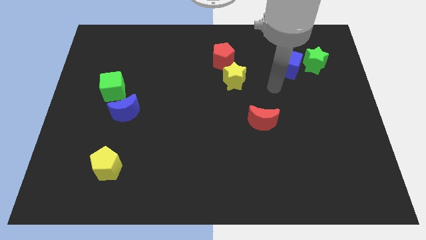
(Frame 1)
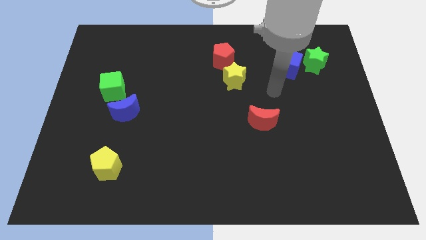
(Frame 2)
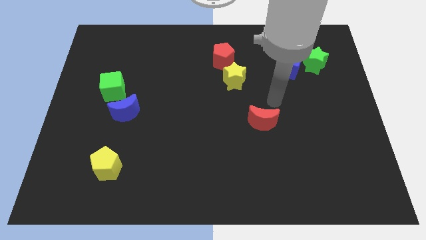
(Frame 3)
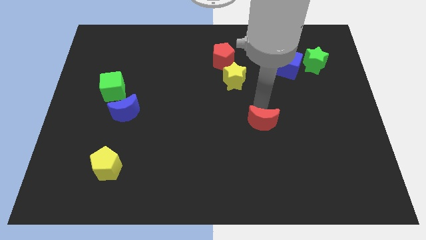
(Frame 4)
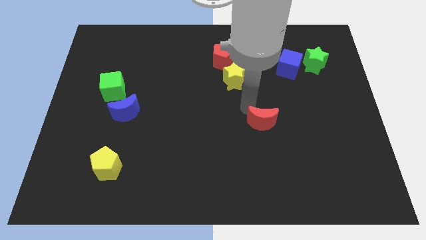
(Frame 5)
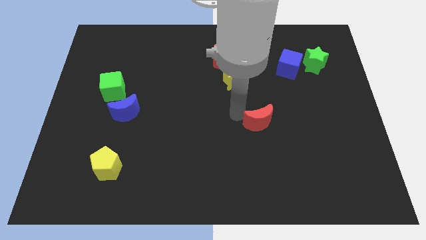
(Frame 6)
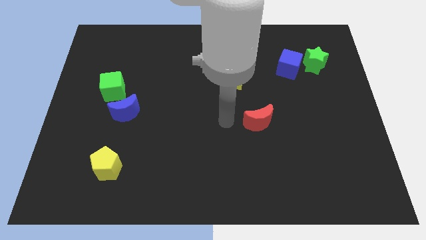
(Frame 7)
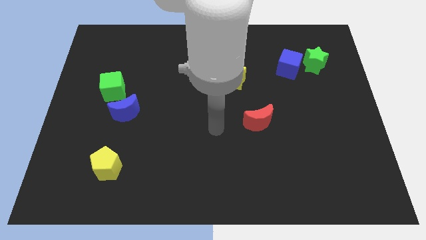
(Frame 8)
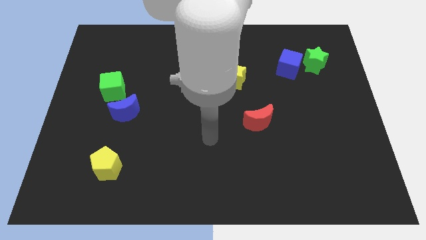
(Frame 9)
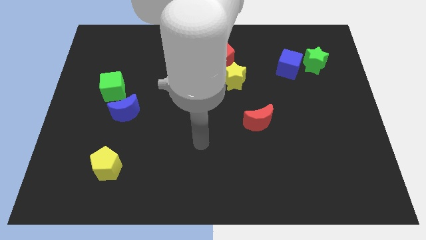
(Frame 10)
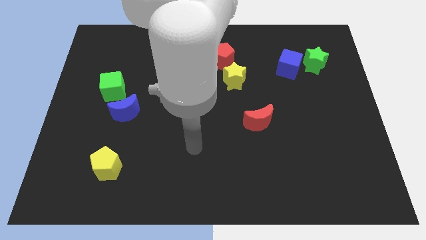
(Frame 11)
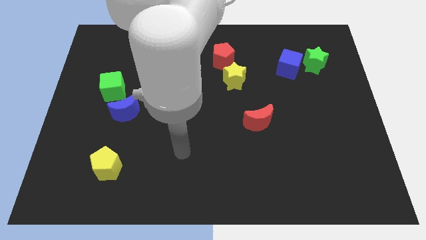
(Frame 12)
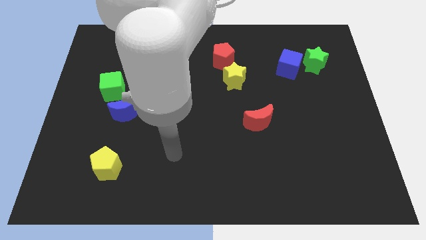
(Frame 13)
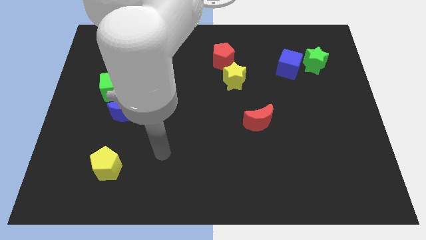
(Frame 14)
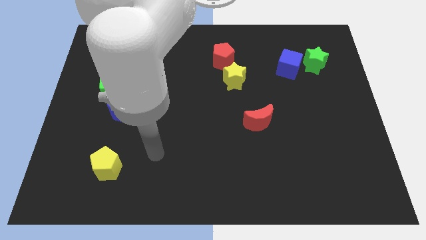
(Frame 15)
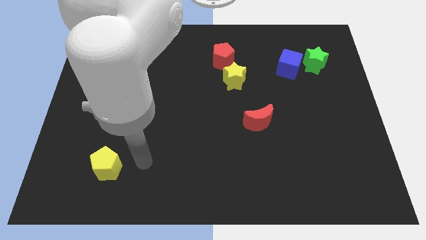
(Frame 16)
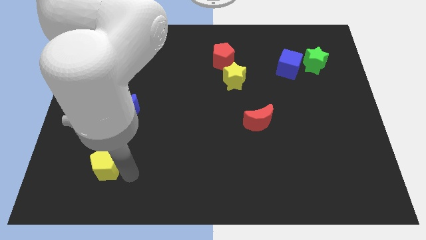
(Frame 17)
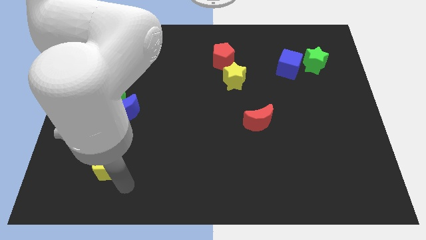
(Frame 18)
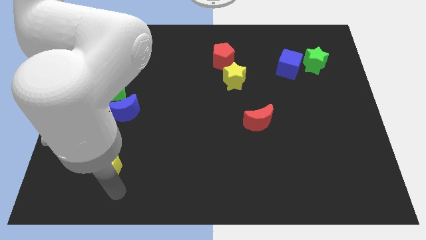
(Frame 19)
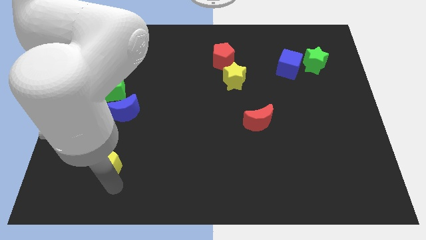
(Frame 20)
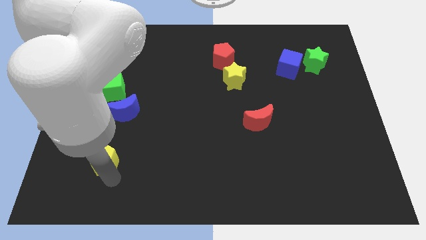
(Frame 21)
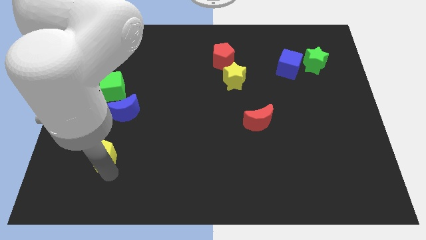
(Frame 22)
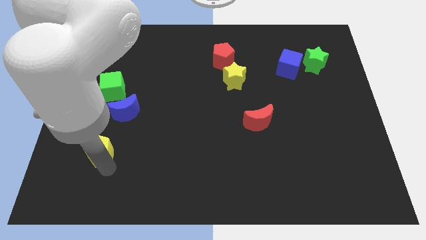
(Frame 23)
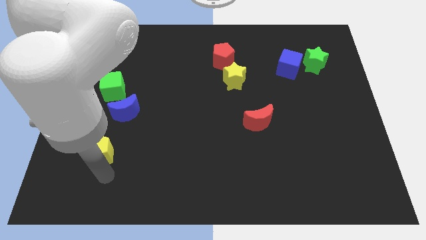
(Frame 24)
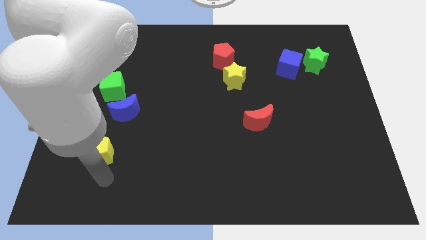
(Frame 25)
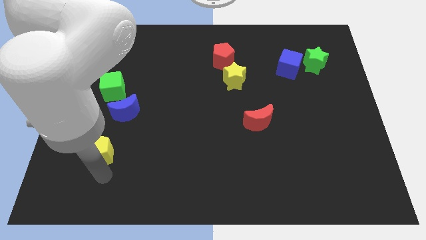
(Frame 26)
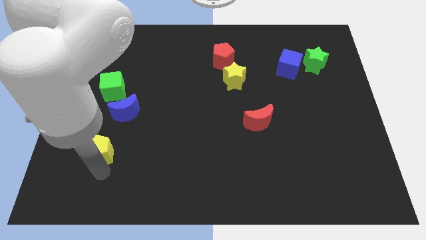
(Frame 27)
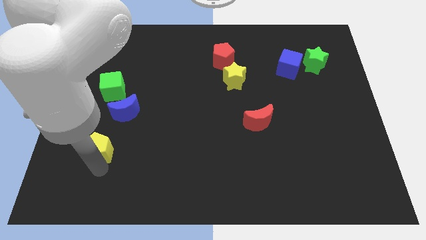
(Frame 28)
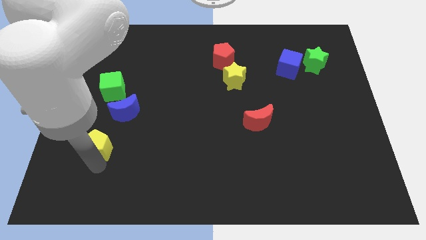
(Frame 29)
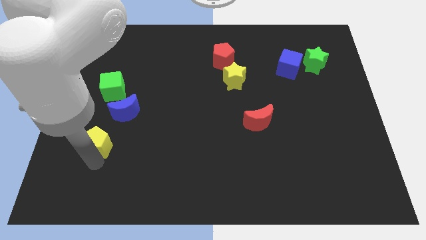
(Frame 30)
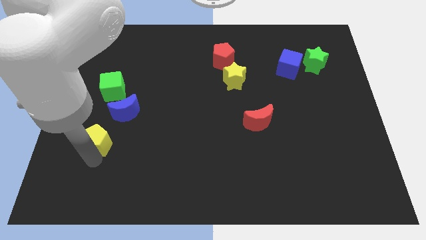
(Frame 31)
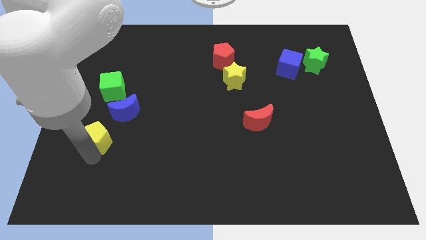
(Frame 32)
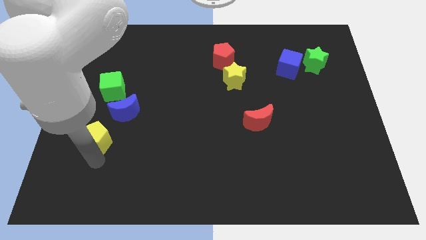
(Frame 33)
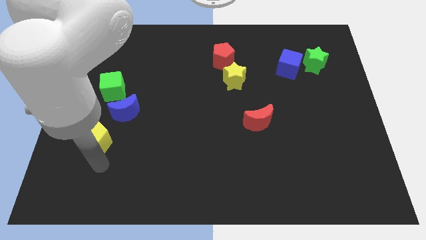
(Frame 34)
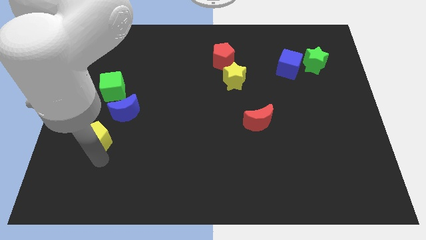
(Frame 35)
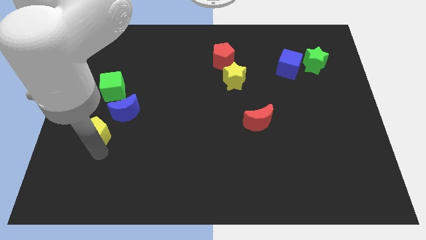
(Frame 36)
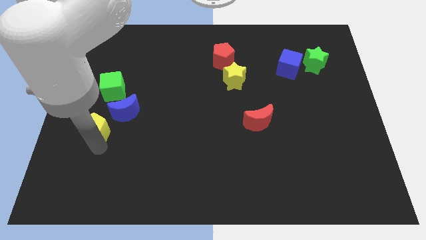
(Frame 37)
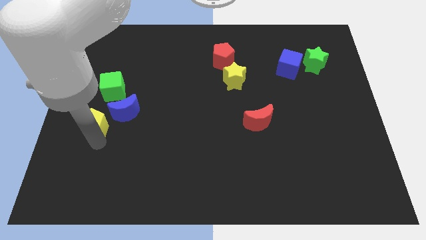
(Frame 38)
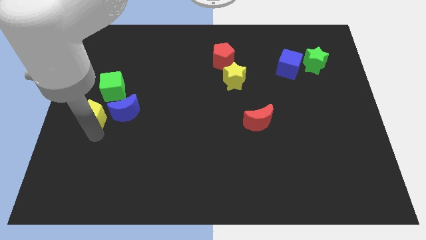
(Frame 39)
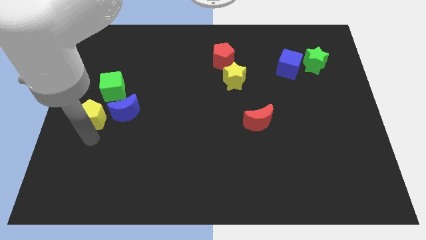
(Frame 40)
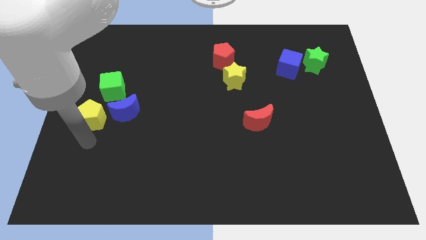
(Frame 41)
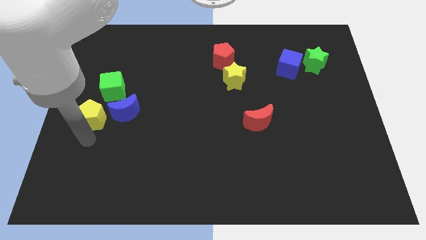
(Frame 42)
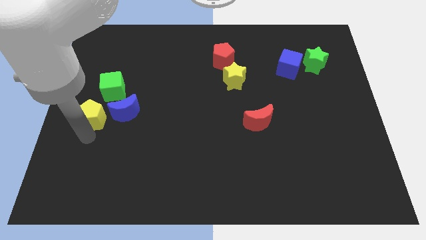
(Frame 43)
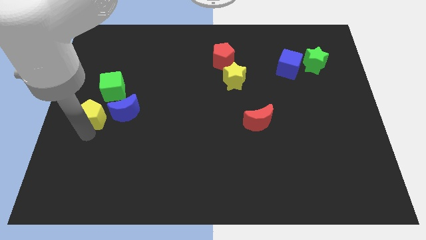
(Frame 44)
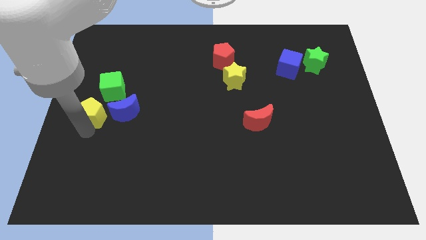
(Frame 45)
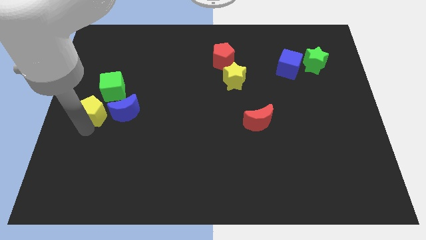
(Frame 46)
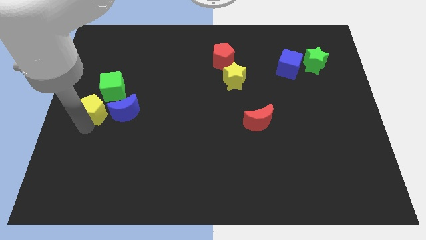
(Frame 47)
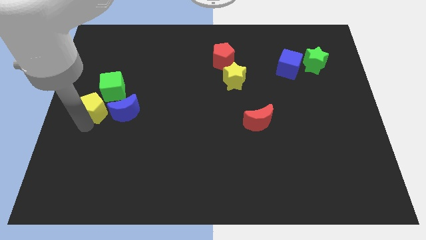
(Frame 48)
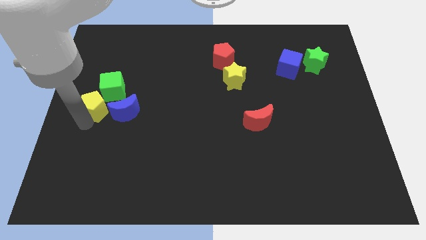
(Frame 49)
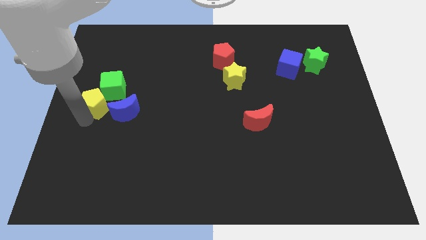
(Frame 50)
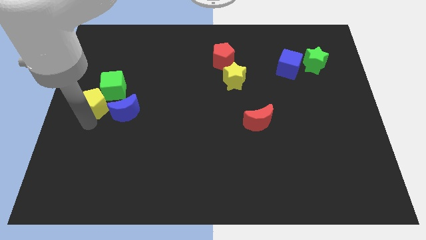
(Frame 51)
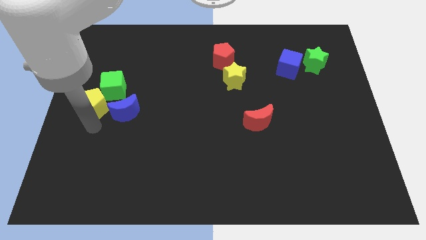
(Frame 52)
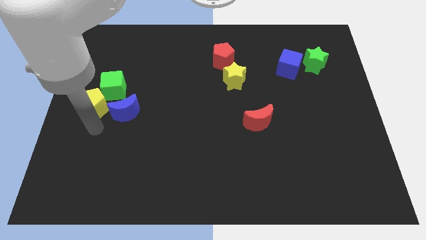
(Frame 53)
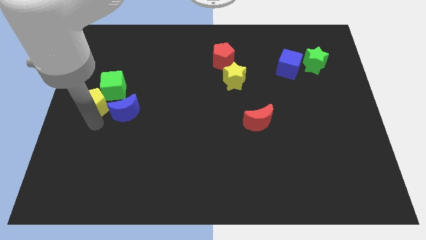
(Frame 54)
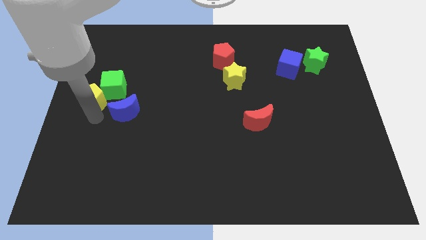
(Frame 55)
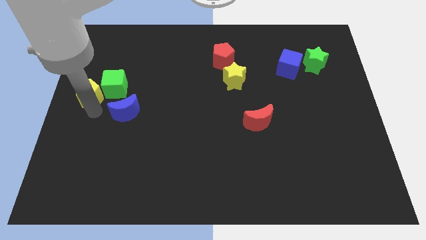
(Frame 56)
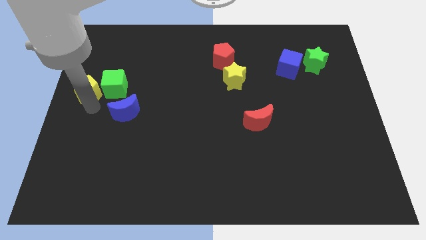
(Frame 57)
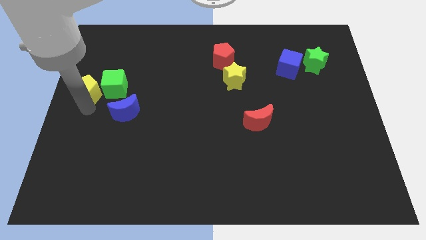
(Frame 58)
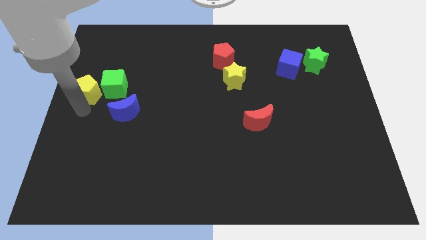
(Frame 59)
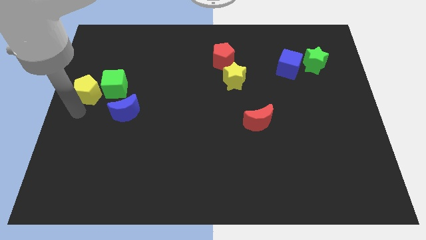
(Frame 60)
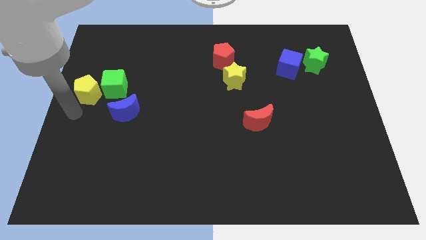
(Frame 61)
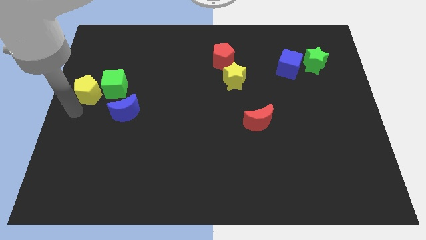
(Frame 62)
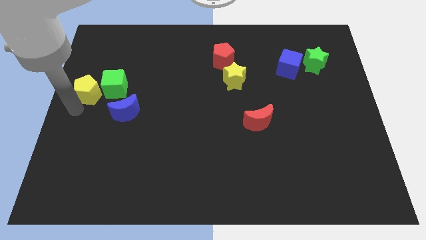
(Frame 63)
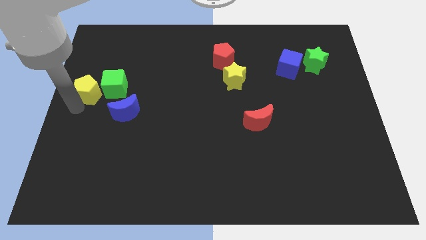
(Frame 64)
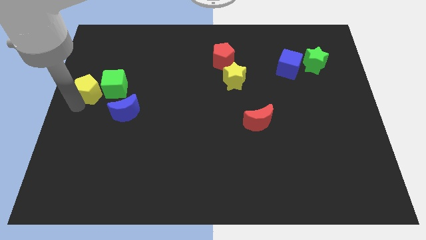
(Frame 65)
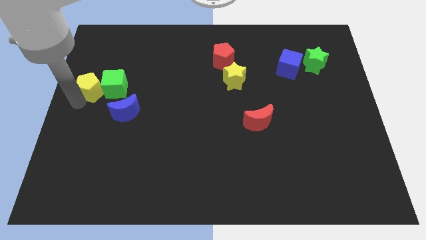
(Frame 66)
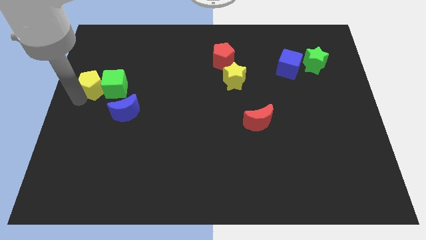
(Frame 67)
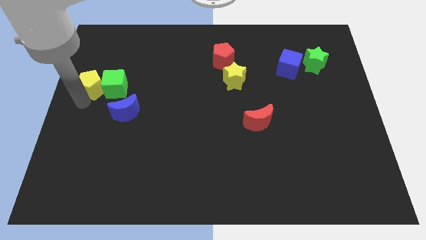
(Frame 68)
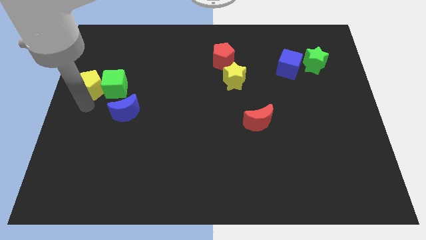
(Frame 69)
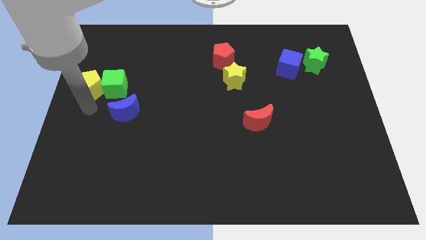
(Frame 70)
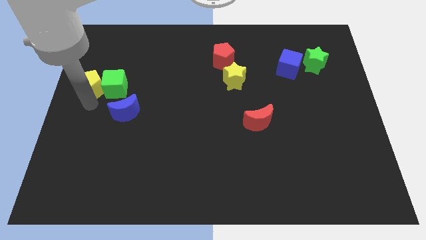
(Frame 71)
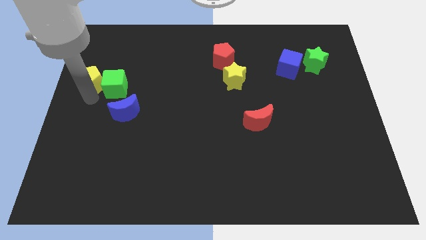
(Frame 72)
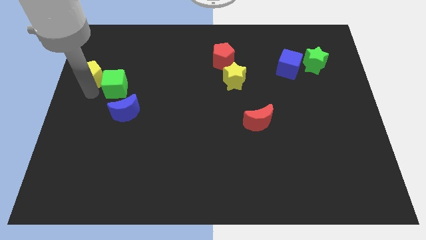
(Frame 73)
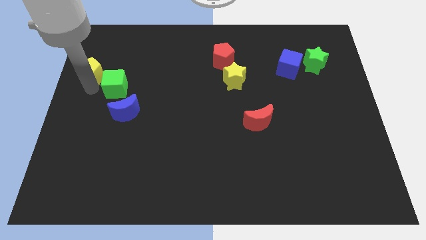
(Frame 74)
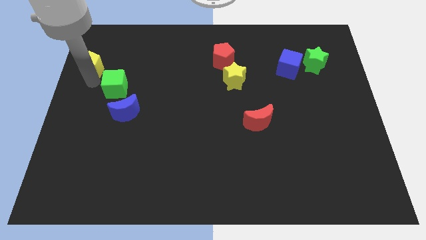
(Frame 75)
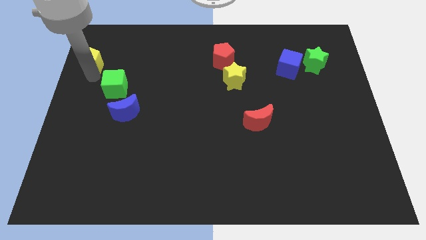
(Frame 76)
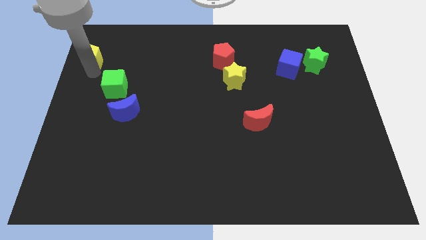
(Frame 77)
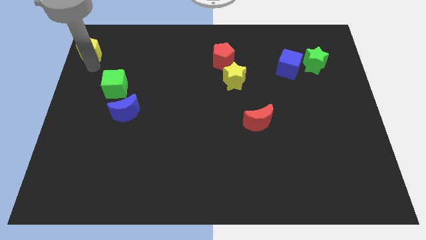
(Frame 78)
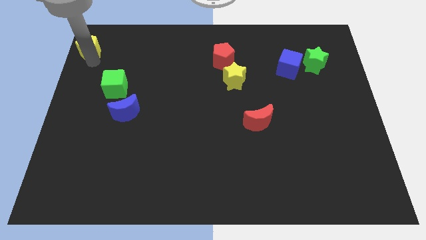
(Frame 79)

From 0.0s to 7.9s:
slide the yellow pentagon to the top left
